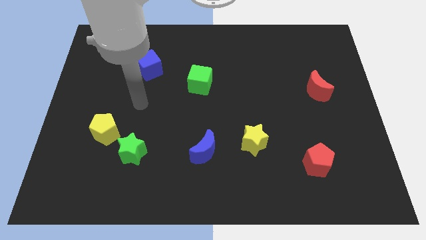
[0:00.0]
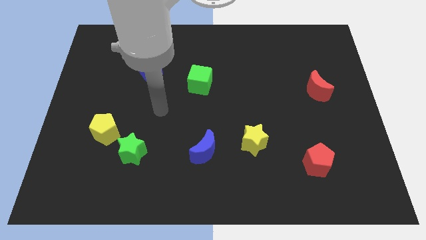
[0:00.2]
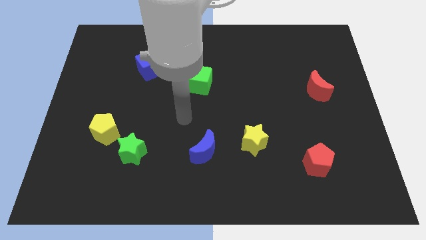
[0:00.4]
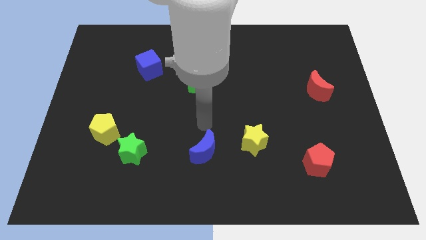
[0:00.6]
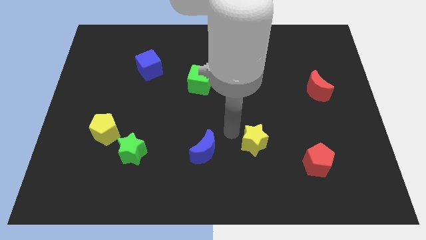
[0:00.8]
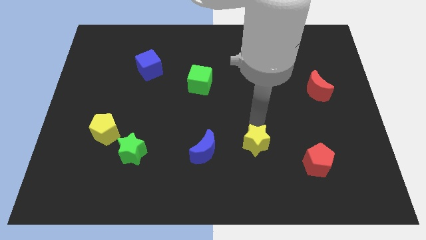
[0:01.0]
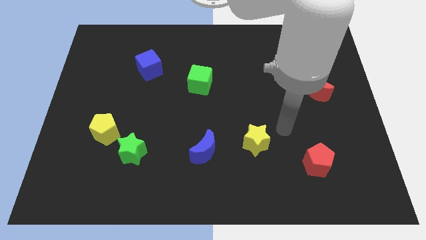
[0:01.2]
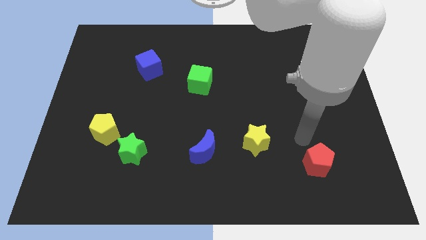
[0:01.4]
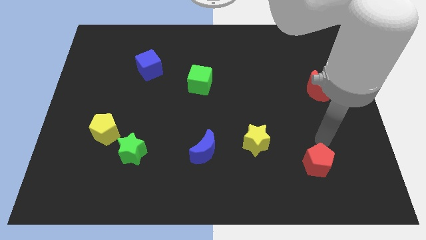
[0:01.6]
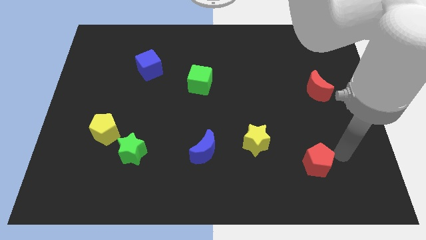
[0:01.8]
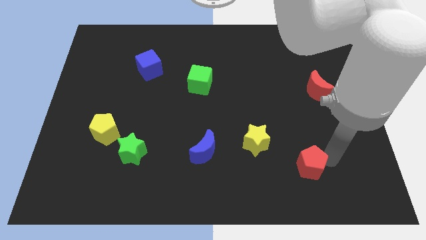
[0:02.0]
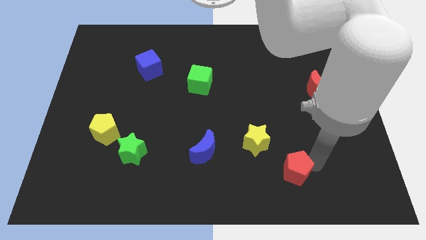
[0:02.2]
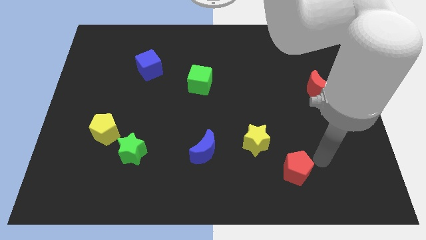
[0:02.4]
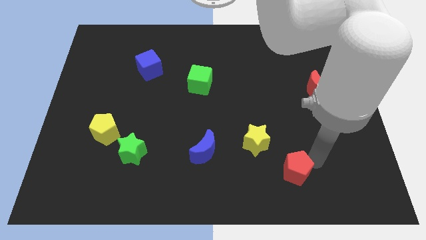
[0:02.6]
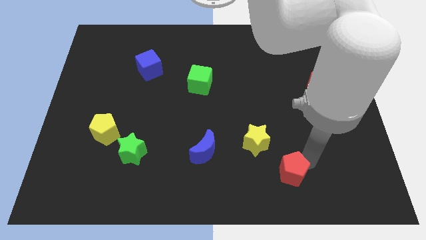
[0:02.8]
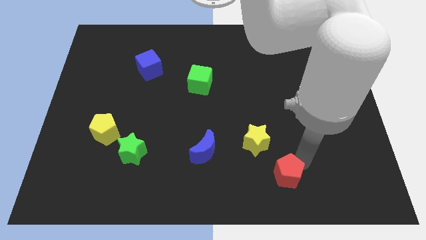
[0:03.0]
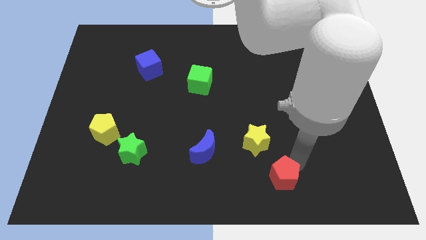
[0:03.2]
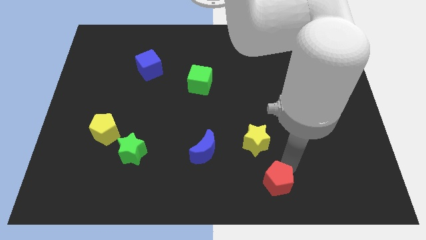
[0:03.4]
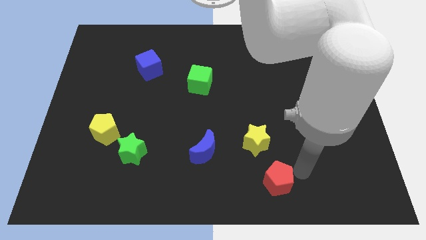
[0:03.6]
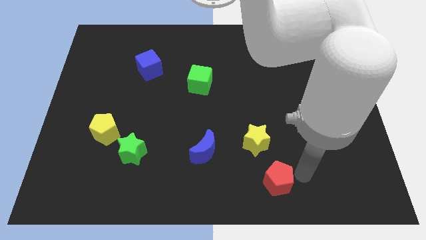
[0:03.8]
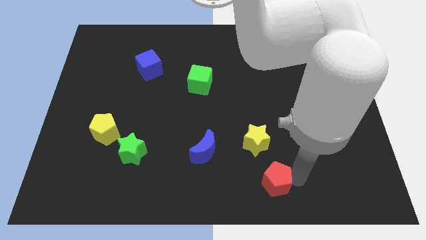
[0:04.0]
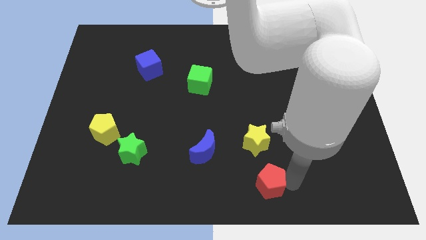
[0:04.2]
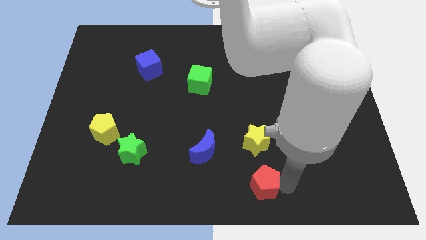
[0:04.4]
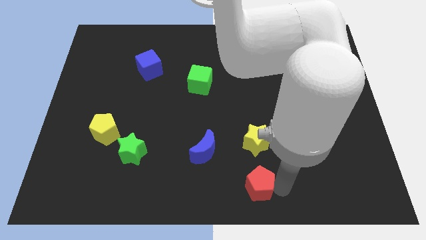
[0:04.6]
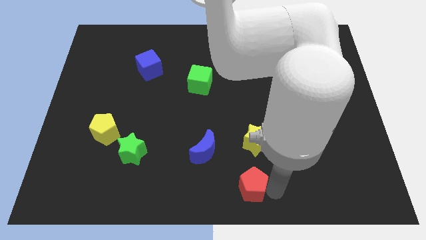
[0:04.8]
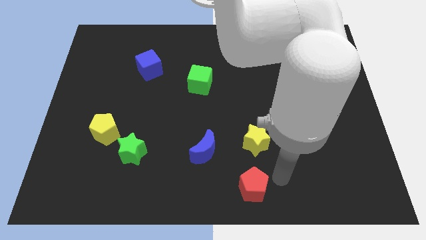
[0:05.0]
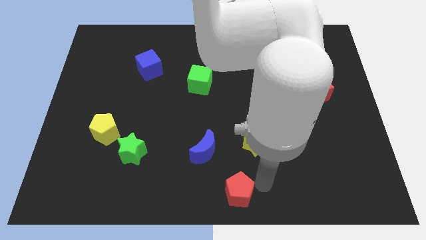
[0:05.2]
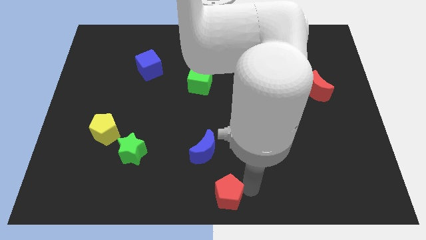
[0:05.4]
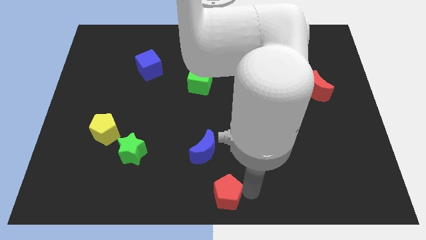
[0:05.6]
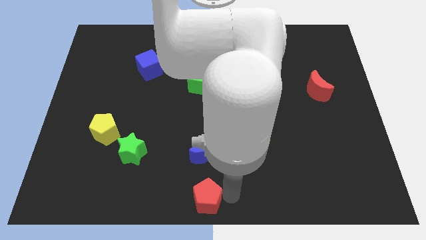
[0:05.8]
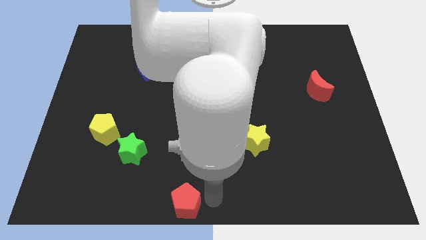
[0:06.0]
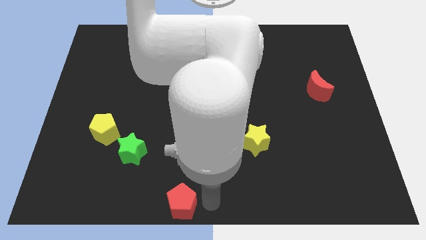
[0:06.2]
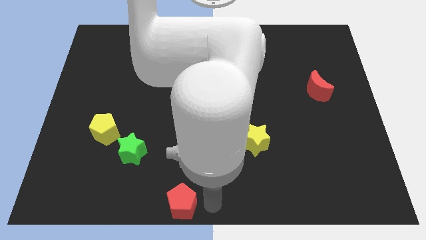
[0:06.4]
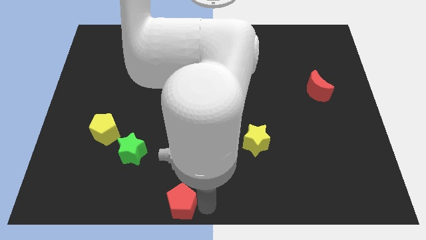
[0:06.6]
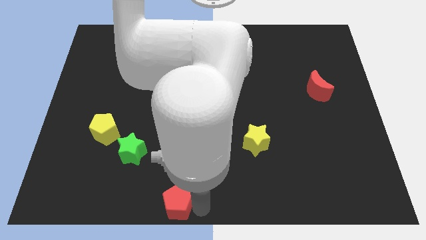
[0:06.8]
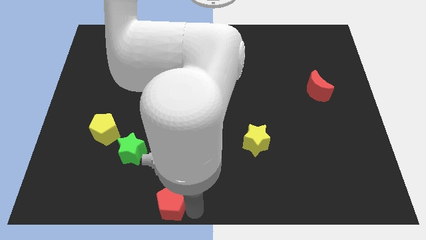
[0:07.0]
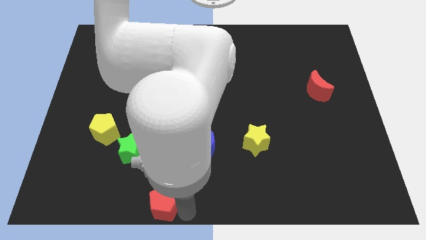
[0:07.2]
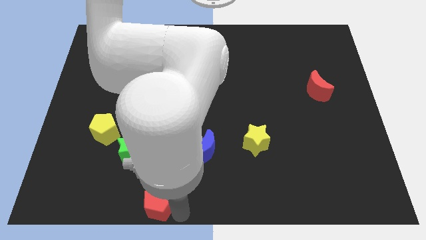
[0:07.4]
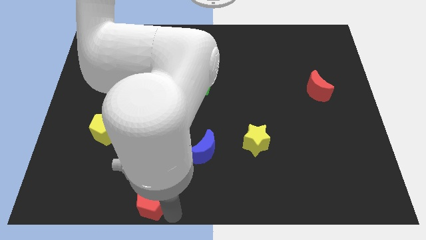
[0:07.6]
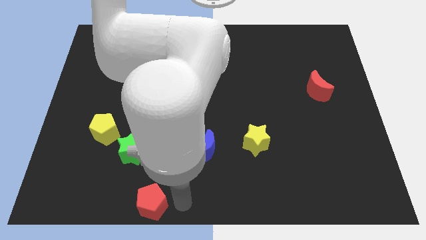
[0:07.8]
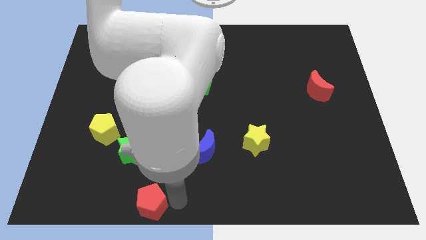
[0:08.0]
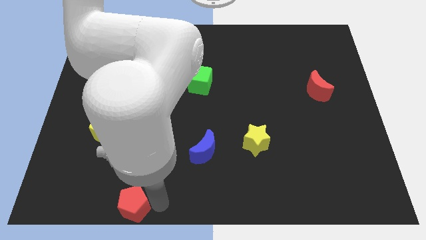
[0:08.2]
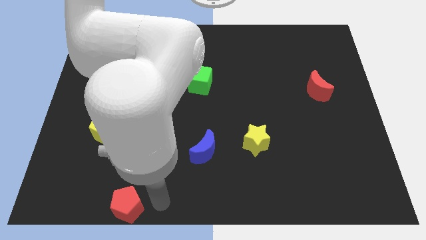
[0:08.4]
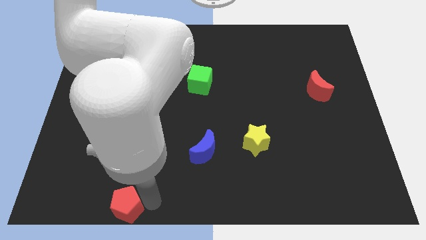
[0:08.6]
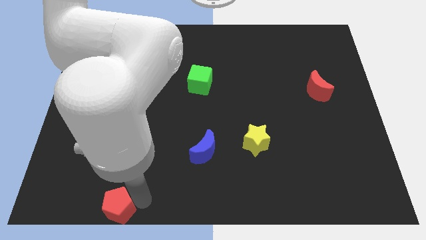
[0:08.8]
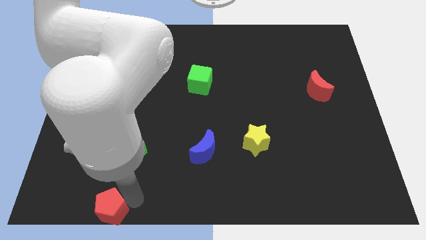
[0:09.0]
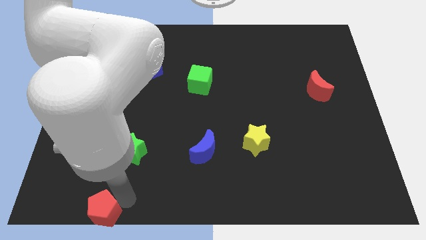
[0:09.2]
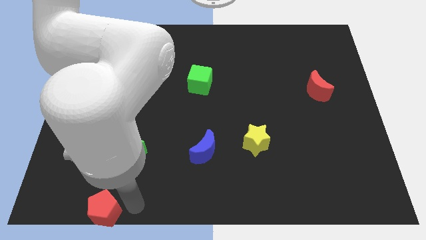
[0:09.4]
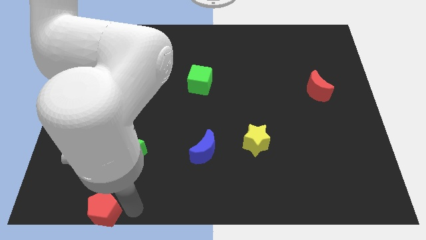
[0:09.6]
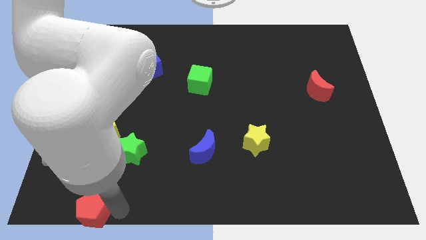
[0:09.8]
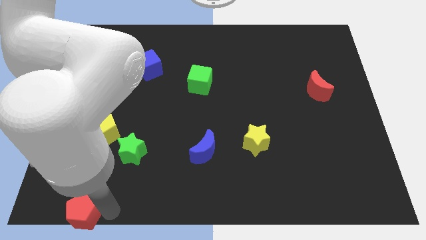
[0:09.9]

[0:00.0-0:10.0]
put the red pentagon to the bottom left

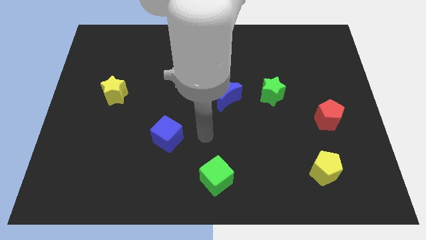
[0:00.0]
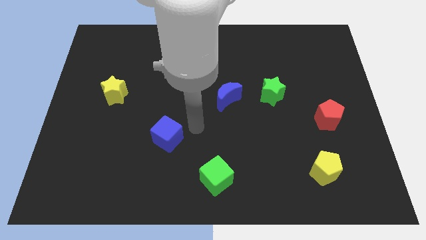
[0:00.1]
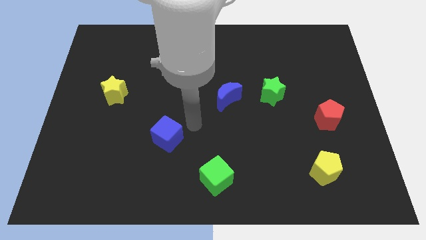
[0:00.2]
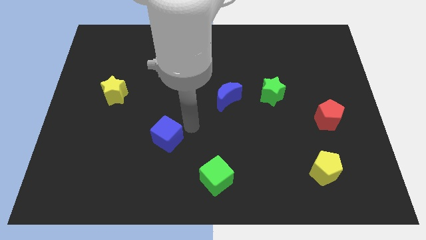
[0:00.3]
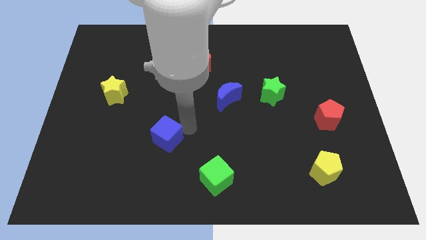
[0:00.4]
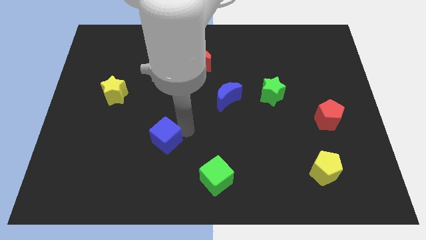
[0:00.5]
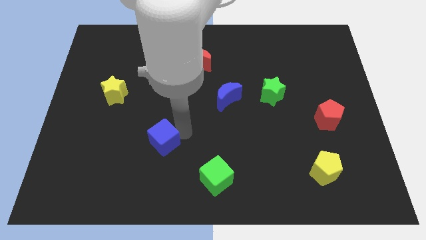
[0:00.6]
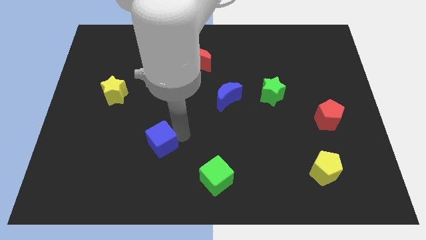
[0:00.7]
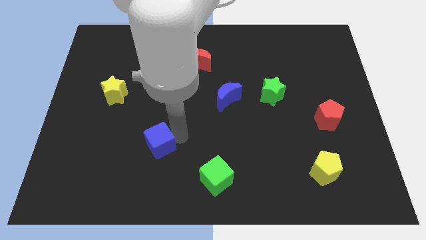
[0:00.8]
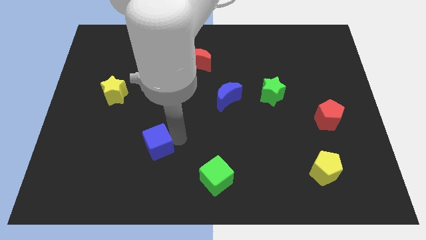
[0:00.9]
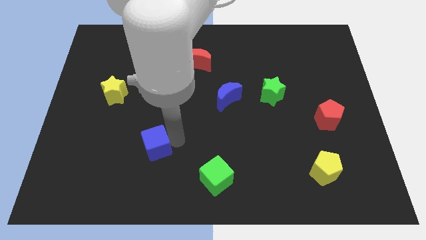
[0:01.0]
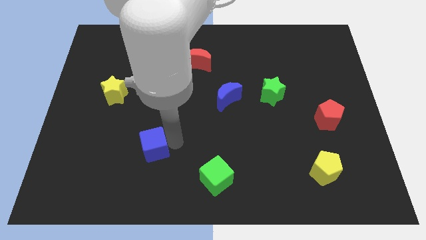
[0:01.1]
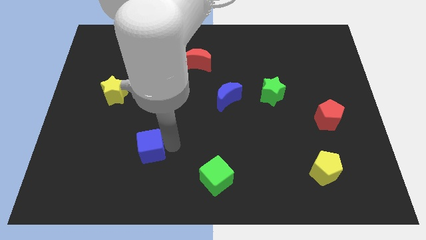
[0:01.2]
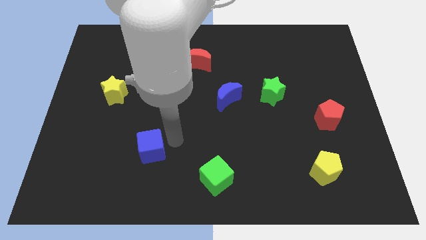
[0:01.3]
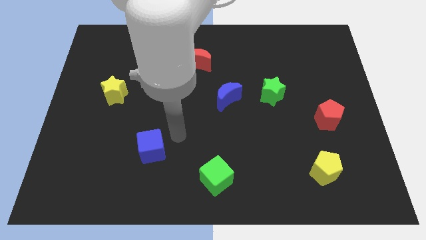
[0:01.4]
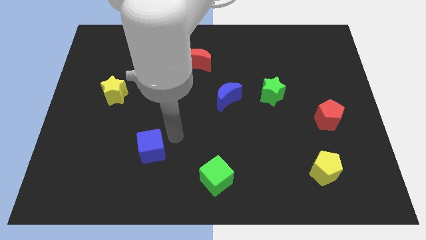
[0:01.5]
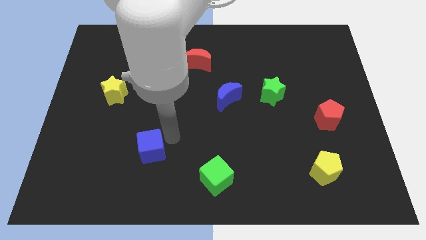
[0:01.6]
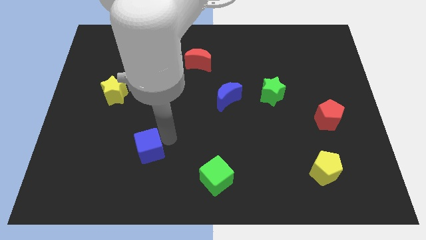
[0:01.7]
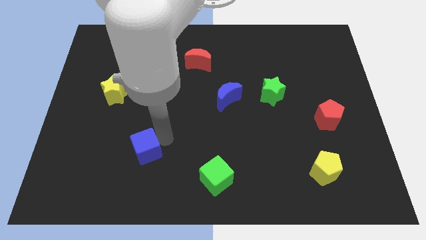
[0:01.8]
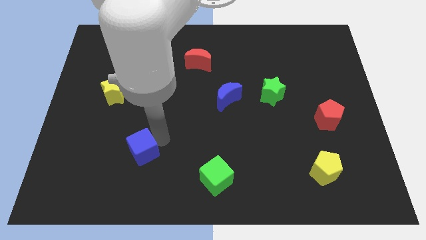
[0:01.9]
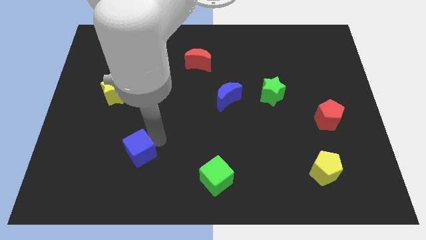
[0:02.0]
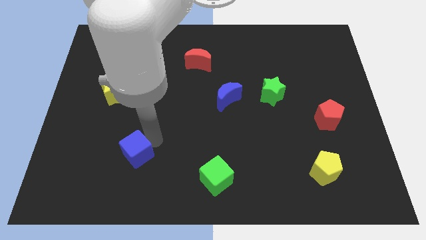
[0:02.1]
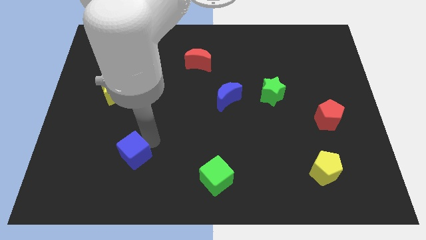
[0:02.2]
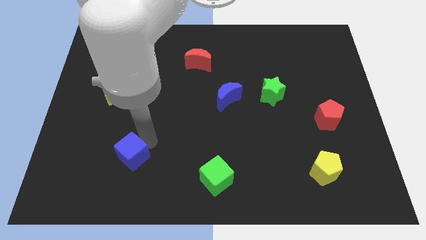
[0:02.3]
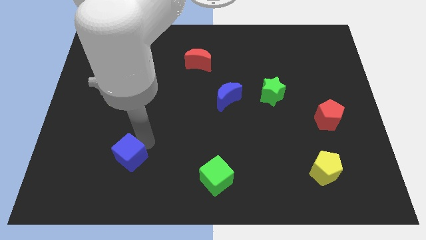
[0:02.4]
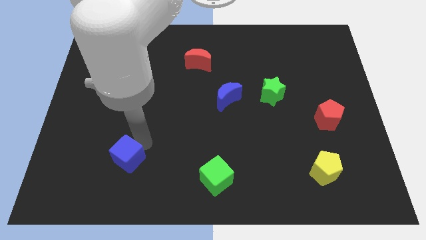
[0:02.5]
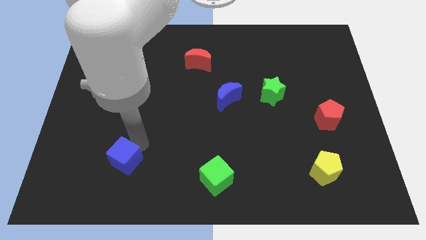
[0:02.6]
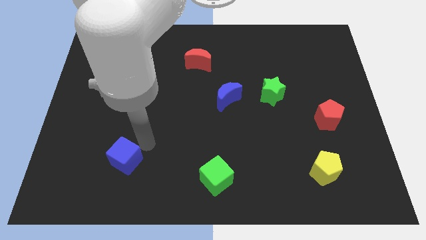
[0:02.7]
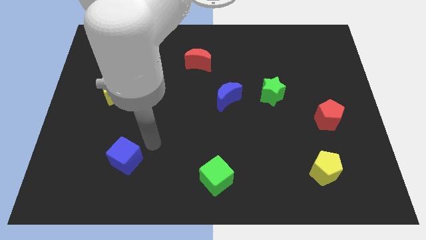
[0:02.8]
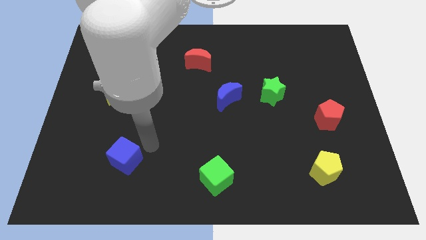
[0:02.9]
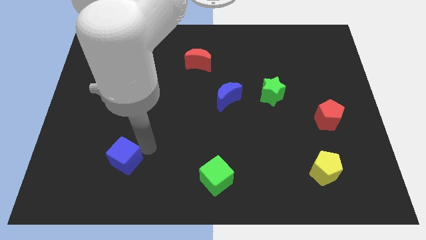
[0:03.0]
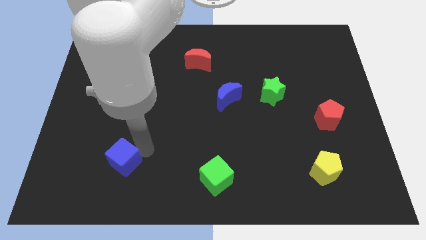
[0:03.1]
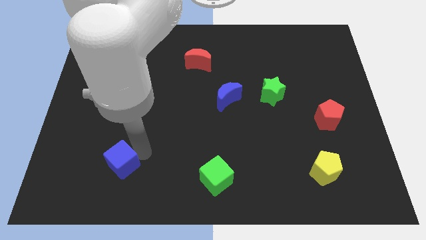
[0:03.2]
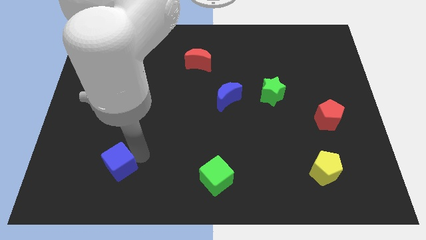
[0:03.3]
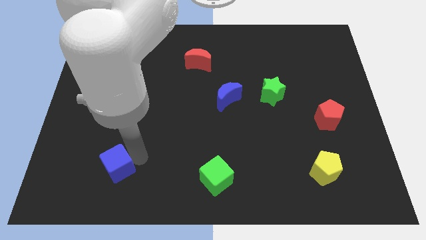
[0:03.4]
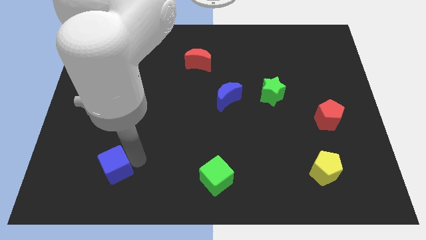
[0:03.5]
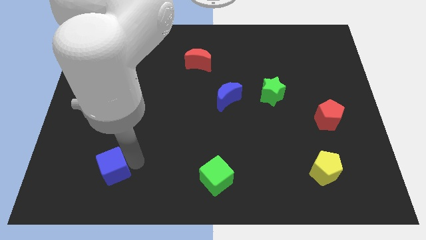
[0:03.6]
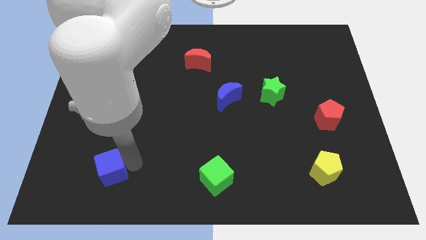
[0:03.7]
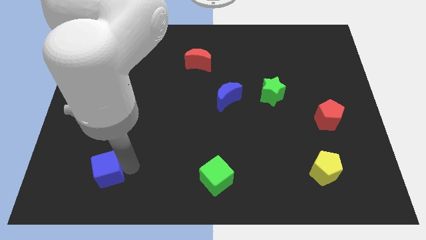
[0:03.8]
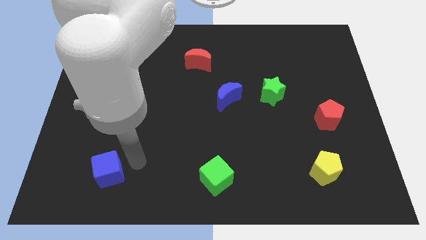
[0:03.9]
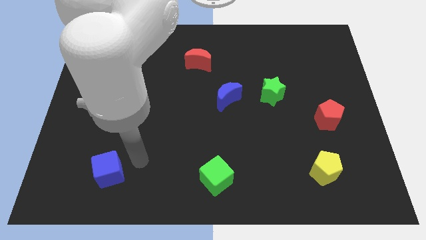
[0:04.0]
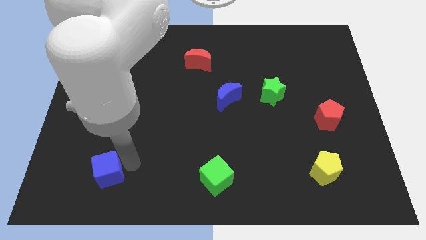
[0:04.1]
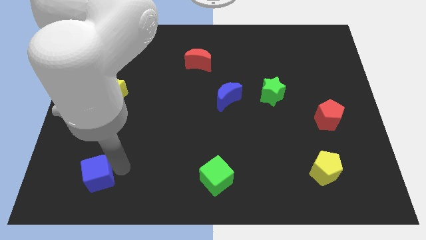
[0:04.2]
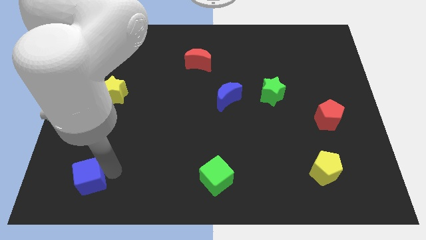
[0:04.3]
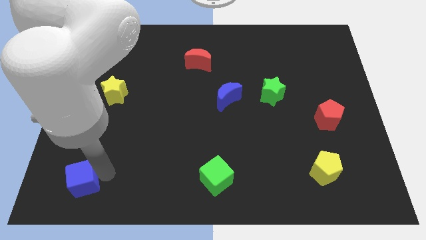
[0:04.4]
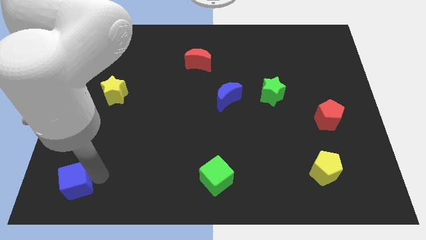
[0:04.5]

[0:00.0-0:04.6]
slide the blue cube to the bottom left
